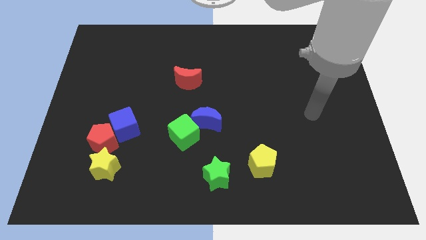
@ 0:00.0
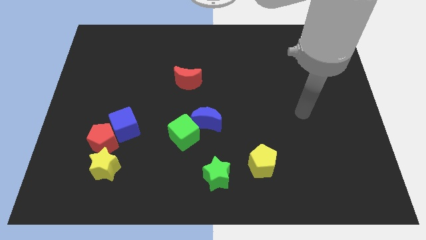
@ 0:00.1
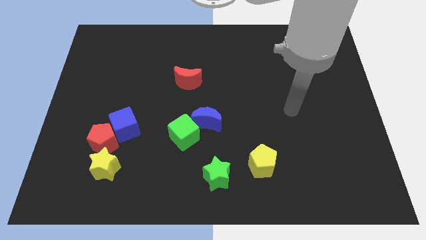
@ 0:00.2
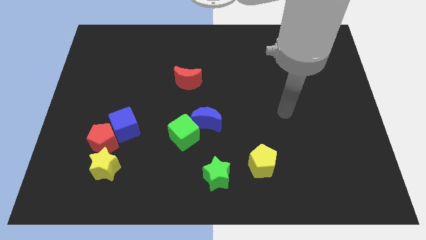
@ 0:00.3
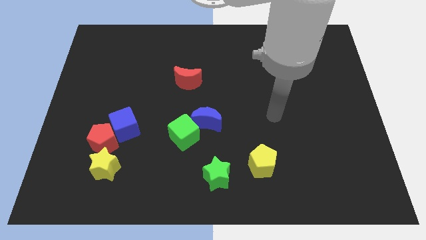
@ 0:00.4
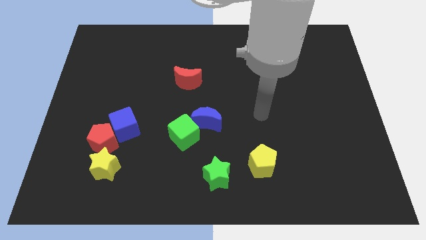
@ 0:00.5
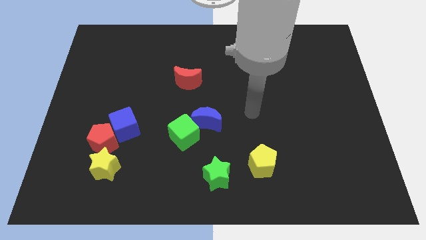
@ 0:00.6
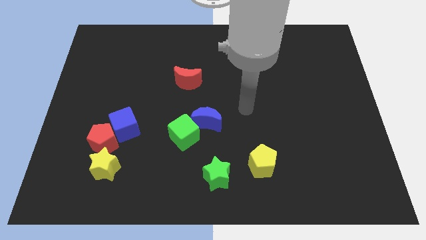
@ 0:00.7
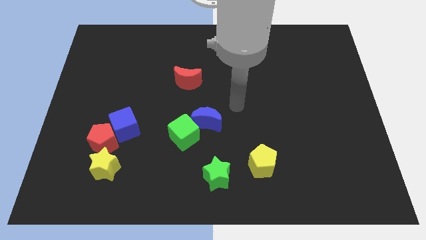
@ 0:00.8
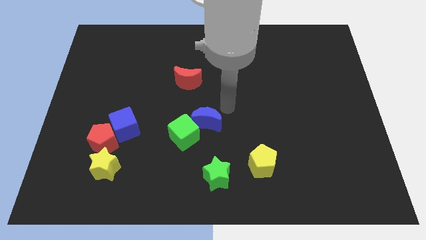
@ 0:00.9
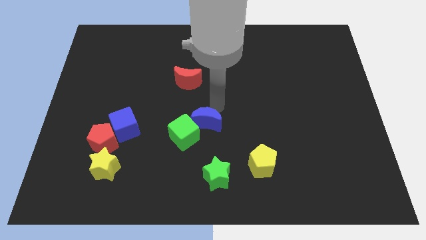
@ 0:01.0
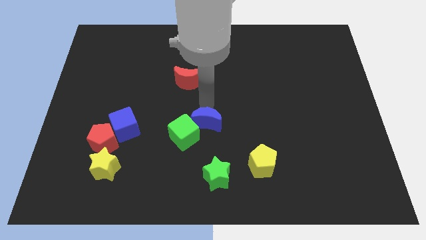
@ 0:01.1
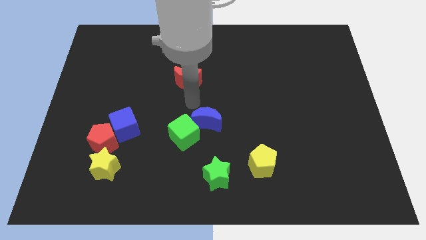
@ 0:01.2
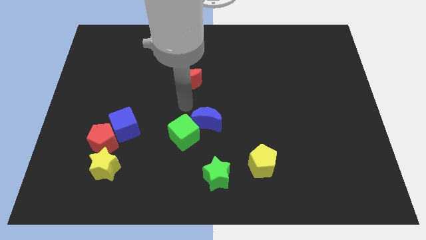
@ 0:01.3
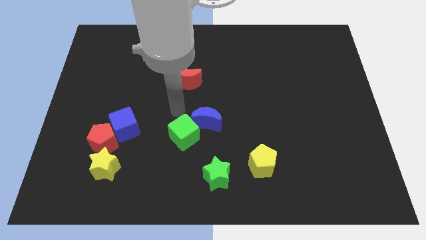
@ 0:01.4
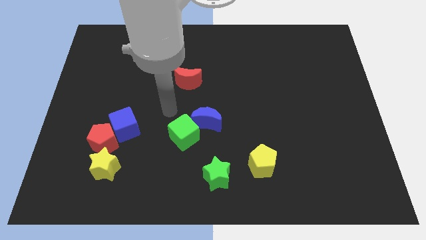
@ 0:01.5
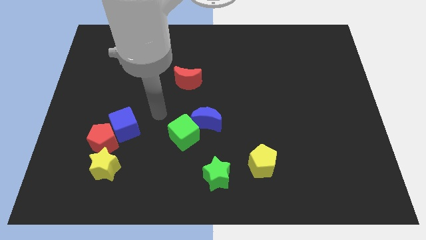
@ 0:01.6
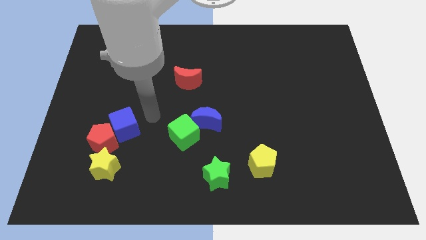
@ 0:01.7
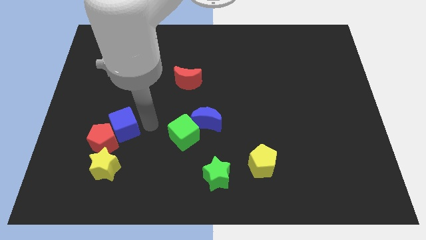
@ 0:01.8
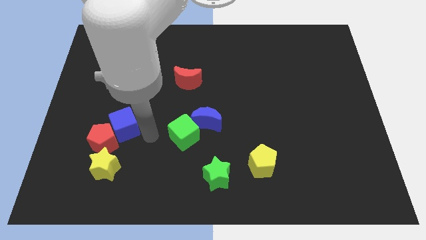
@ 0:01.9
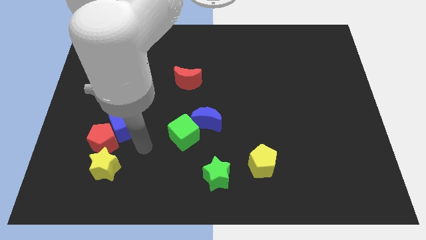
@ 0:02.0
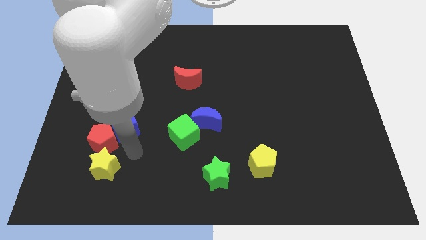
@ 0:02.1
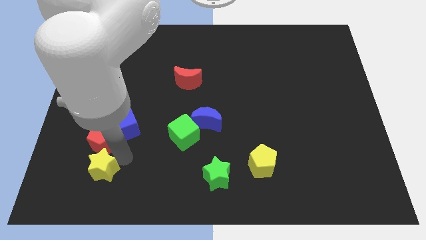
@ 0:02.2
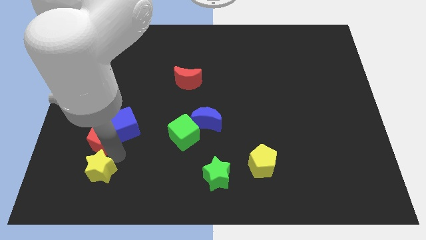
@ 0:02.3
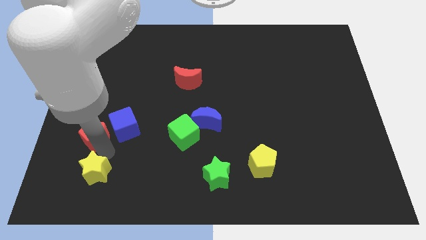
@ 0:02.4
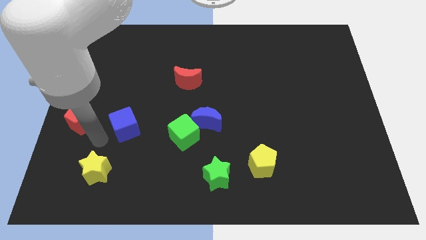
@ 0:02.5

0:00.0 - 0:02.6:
pull the blue cube apart from the red pentagon

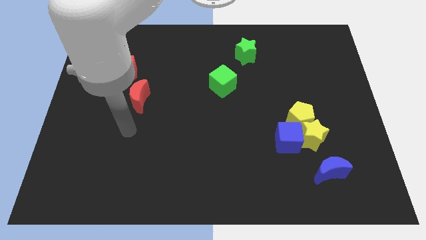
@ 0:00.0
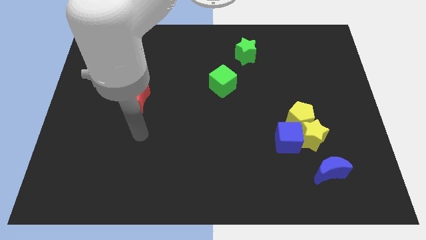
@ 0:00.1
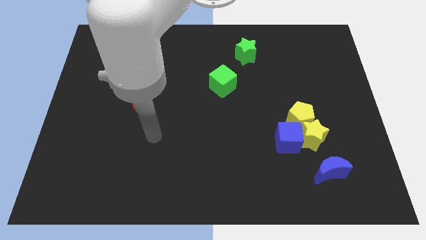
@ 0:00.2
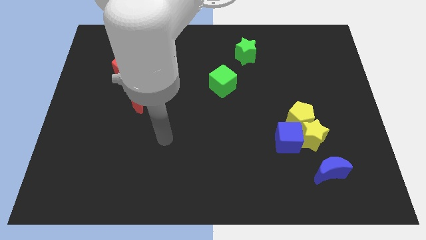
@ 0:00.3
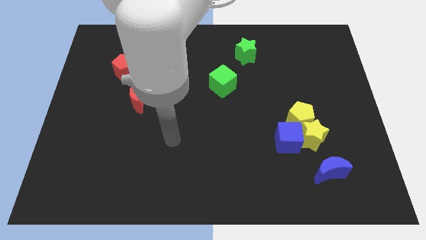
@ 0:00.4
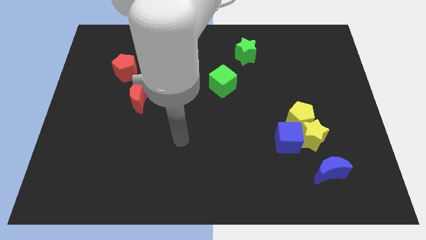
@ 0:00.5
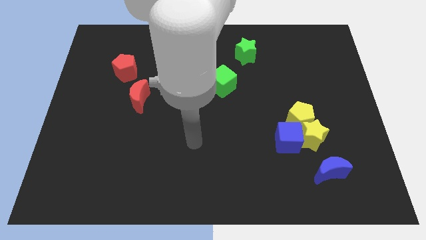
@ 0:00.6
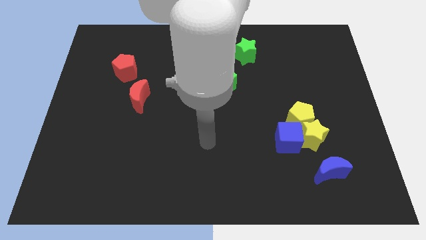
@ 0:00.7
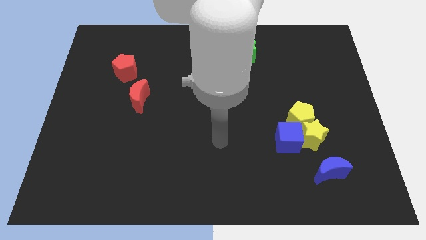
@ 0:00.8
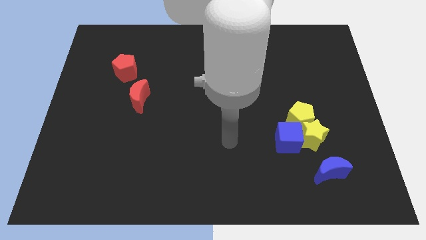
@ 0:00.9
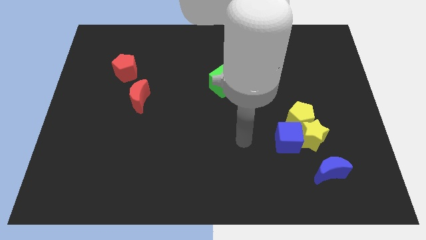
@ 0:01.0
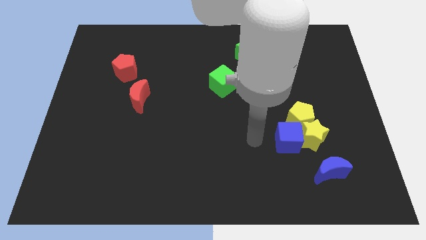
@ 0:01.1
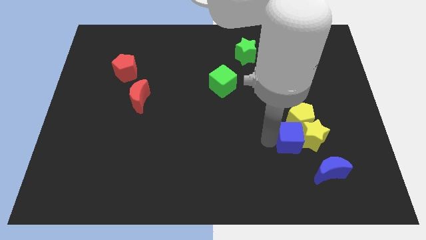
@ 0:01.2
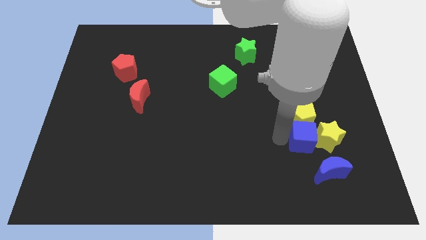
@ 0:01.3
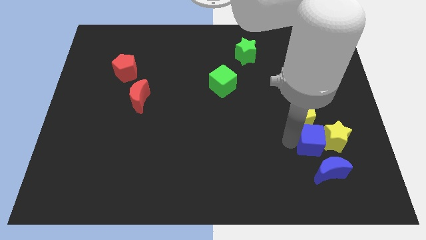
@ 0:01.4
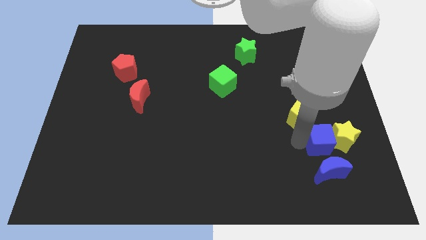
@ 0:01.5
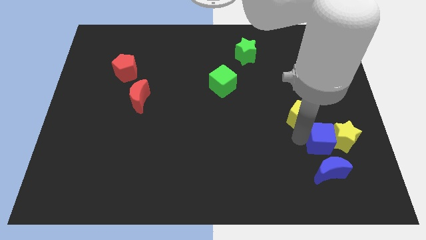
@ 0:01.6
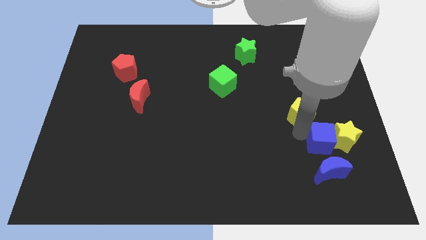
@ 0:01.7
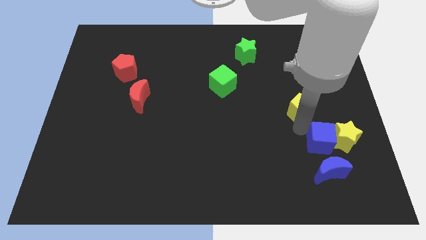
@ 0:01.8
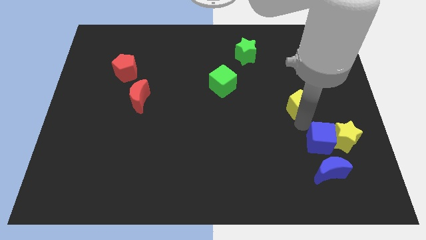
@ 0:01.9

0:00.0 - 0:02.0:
move the yellow pentagon away from the yellow star and blue cube

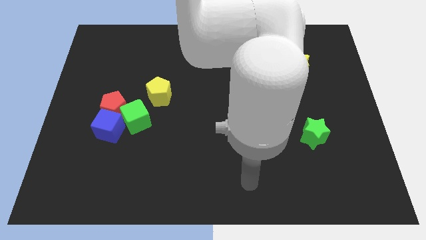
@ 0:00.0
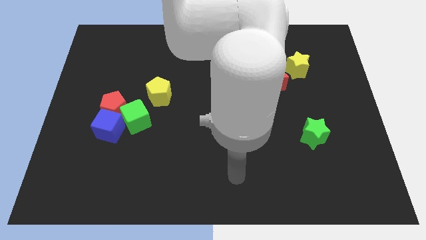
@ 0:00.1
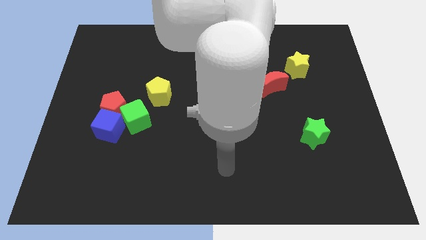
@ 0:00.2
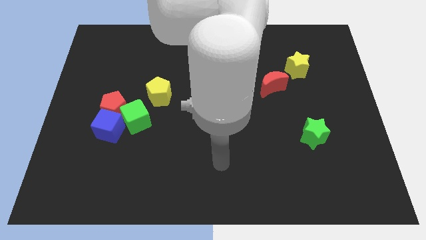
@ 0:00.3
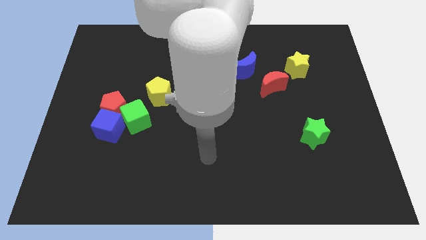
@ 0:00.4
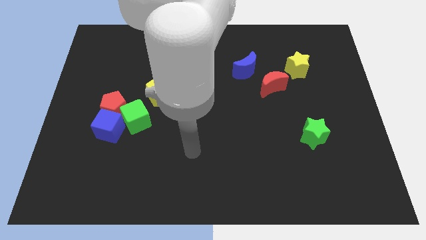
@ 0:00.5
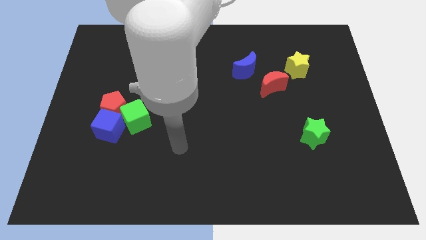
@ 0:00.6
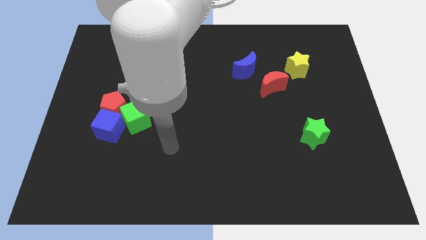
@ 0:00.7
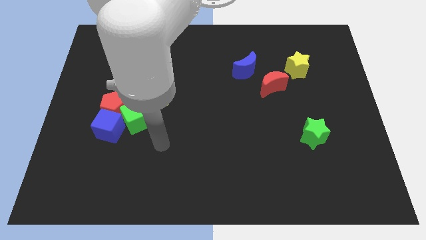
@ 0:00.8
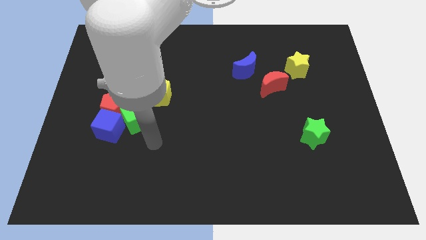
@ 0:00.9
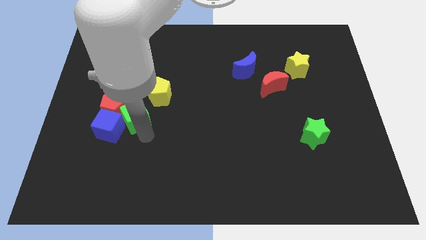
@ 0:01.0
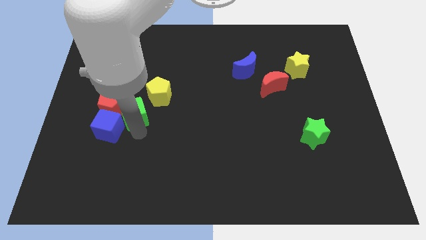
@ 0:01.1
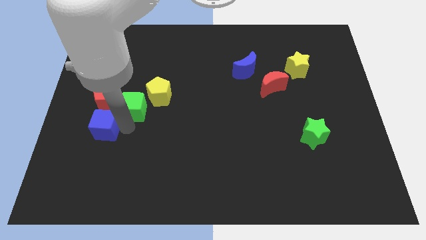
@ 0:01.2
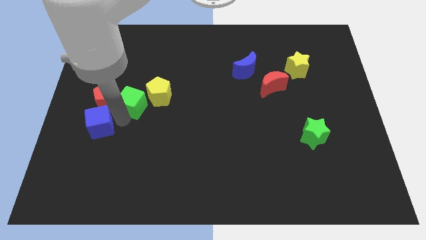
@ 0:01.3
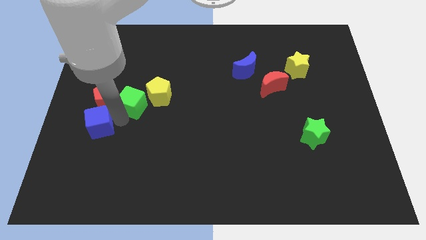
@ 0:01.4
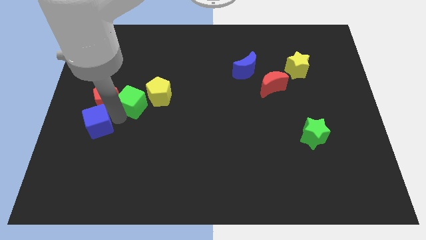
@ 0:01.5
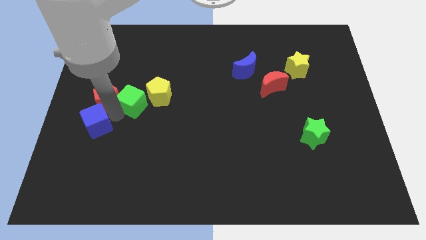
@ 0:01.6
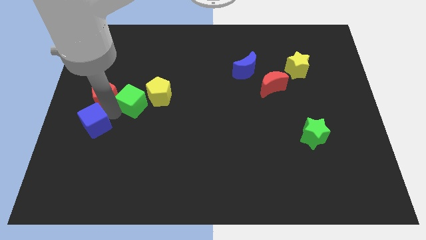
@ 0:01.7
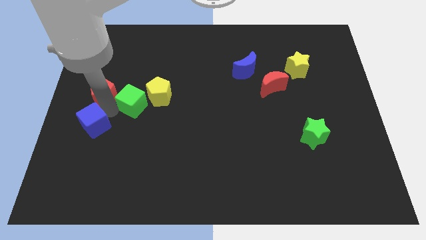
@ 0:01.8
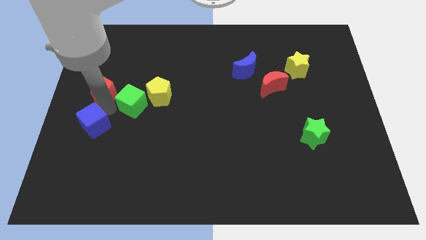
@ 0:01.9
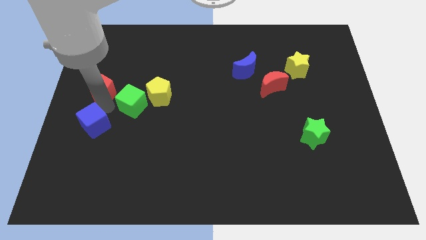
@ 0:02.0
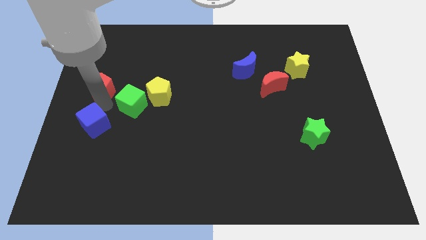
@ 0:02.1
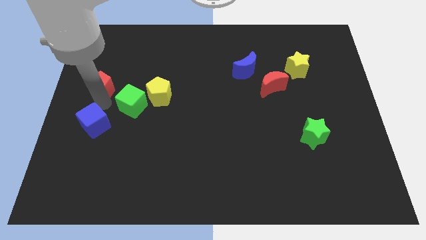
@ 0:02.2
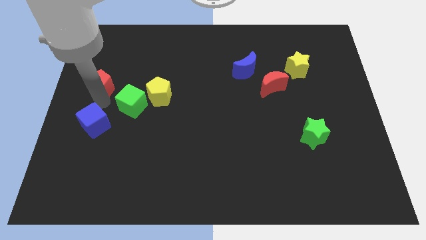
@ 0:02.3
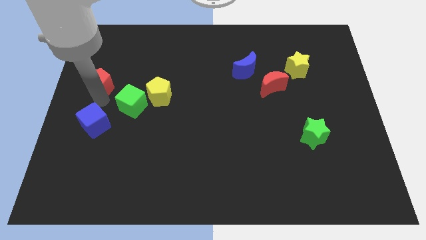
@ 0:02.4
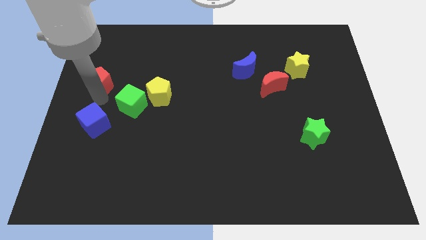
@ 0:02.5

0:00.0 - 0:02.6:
separate the red pentagon from the blue cube and green cube

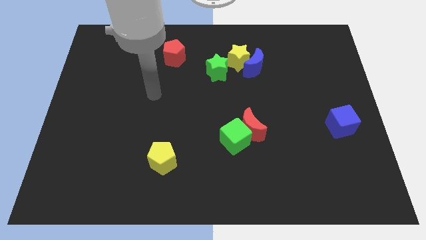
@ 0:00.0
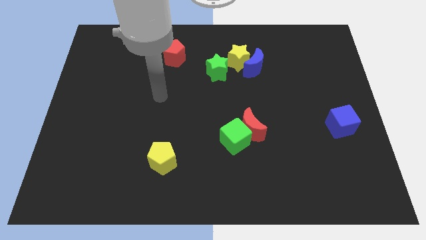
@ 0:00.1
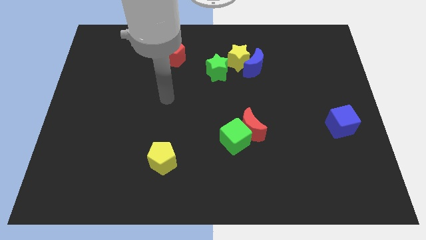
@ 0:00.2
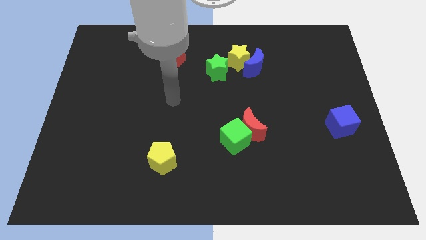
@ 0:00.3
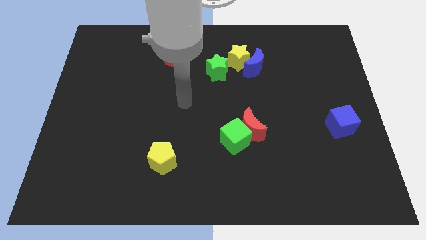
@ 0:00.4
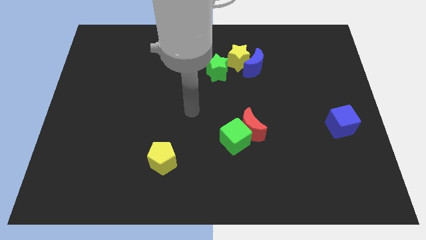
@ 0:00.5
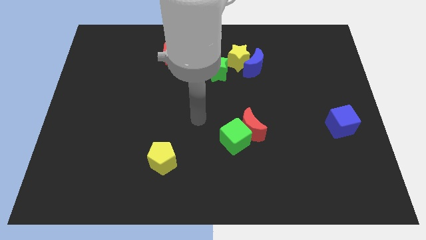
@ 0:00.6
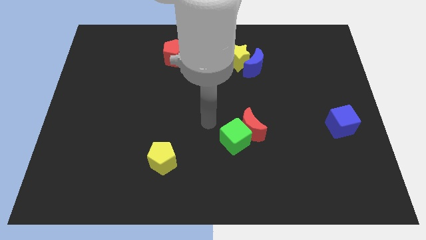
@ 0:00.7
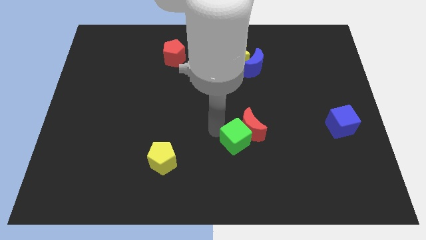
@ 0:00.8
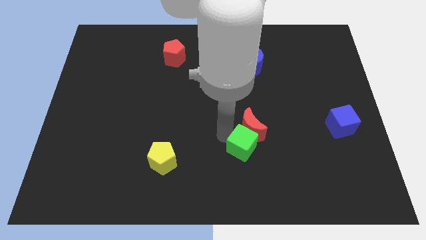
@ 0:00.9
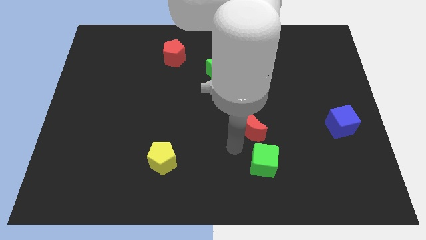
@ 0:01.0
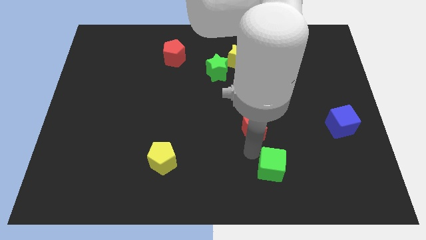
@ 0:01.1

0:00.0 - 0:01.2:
pull the red moon apart from the green cube

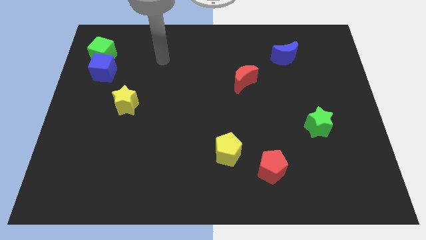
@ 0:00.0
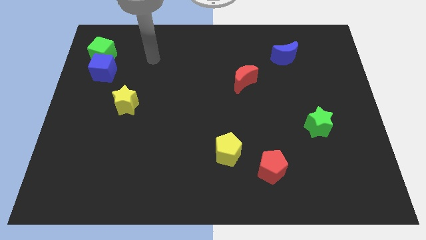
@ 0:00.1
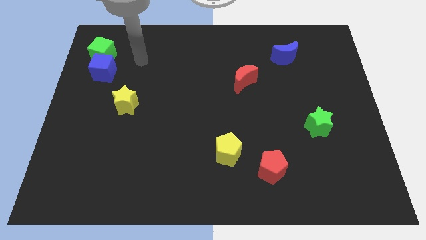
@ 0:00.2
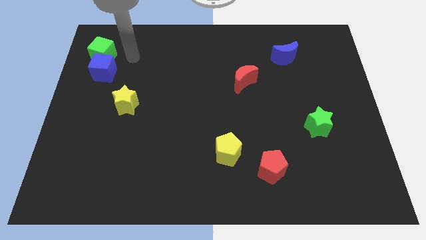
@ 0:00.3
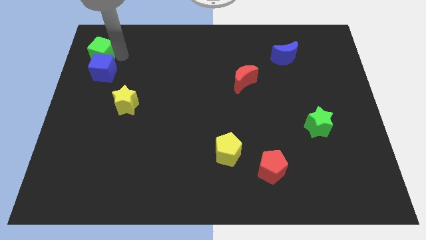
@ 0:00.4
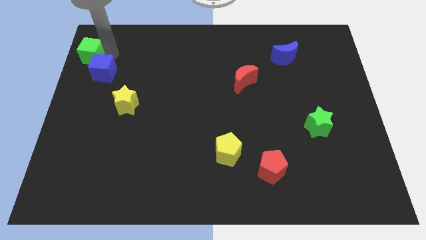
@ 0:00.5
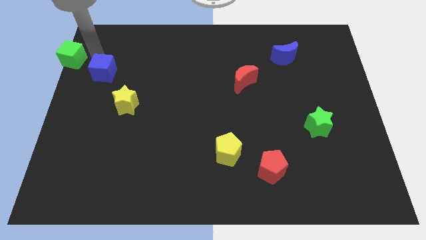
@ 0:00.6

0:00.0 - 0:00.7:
move the blue cube away from the green cube

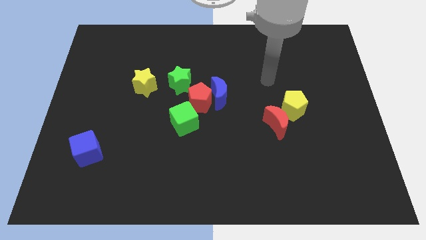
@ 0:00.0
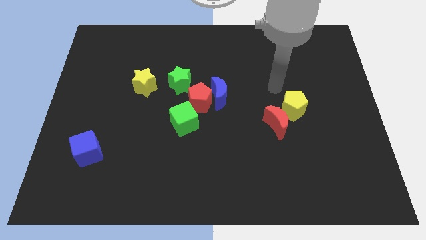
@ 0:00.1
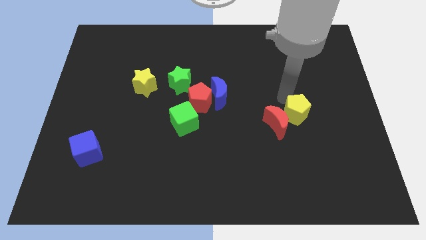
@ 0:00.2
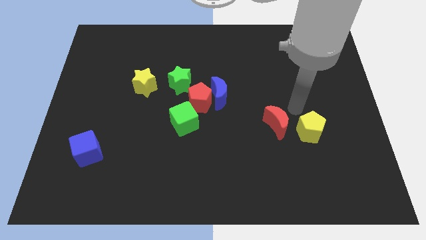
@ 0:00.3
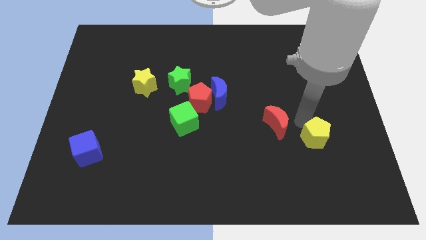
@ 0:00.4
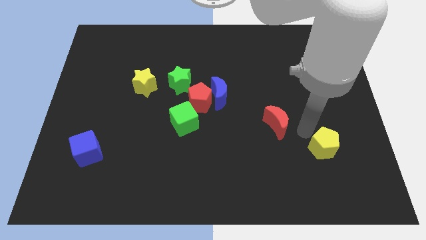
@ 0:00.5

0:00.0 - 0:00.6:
move the red moon away from the yellow pentagon
